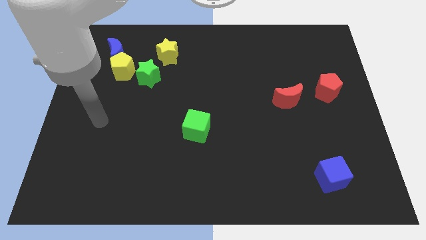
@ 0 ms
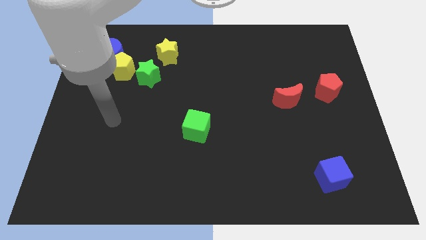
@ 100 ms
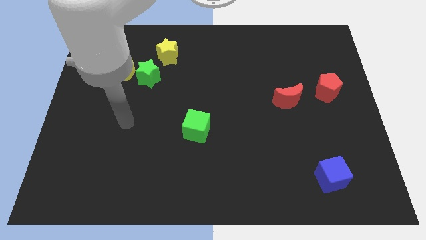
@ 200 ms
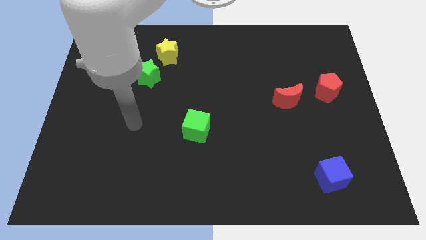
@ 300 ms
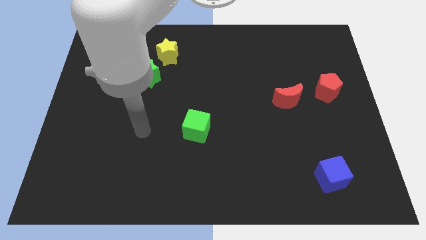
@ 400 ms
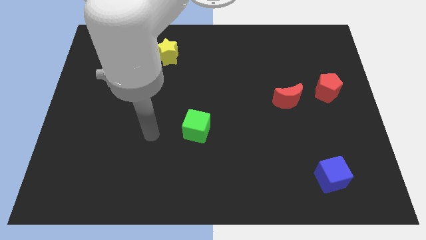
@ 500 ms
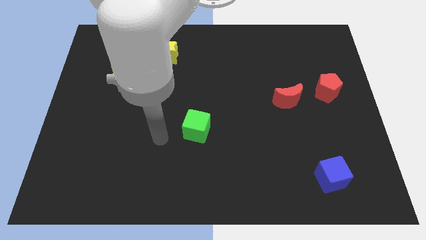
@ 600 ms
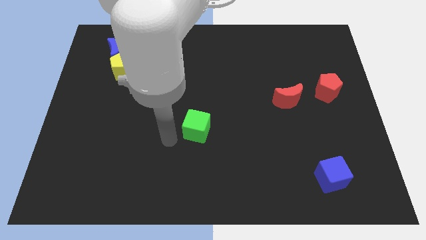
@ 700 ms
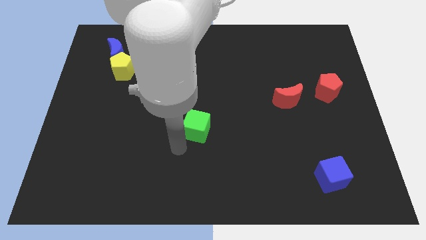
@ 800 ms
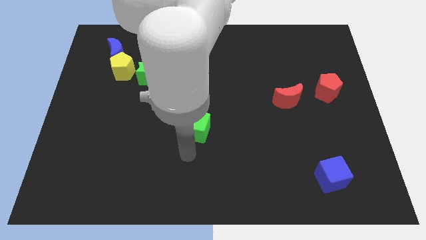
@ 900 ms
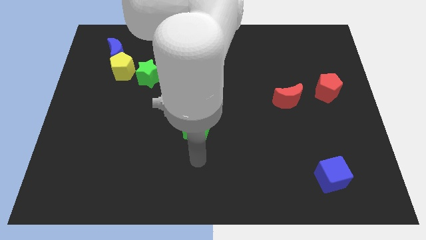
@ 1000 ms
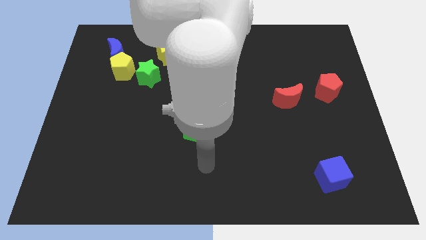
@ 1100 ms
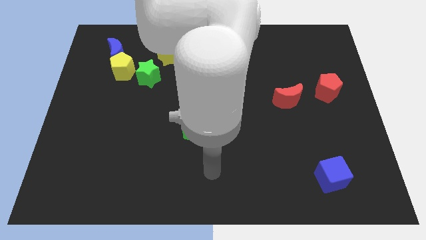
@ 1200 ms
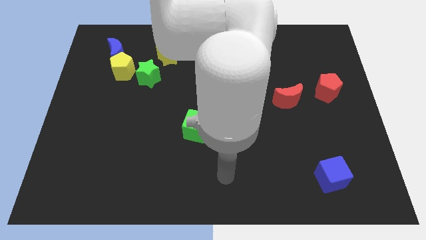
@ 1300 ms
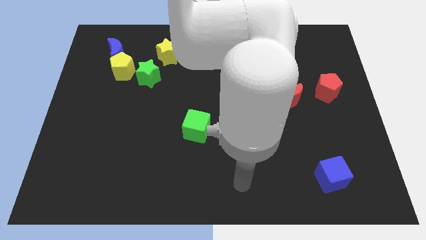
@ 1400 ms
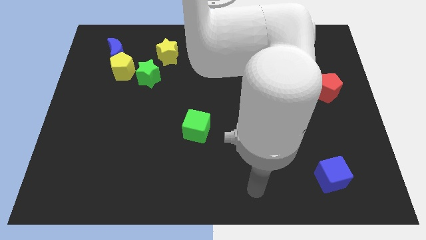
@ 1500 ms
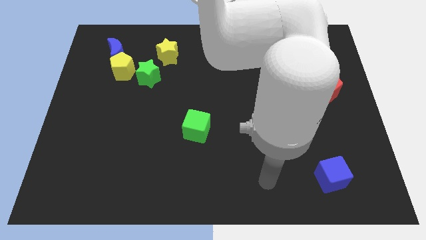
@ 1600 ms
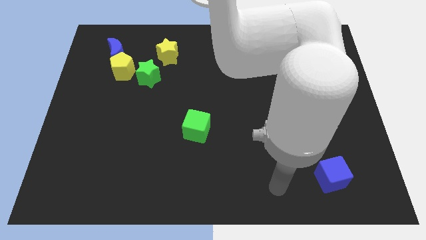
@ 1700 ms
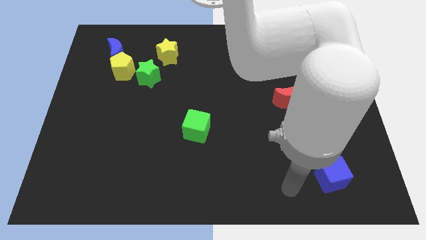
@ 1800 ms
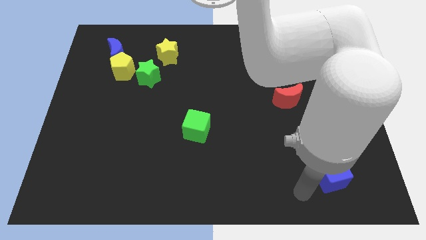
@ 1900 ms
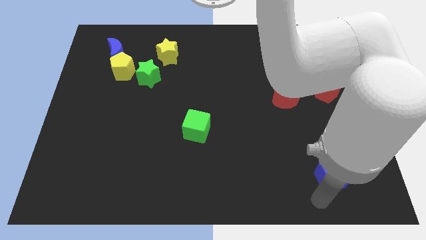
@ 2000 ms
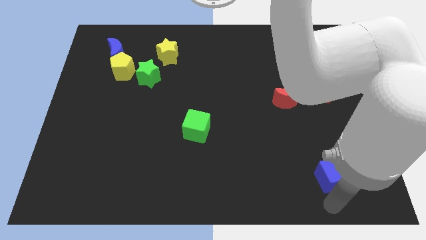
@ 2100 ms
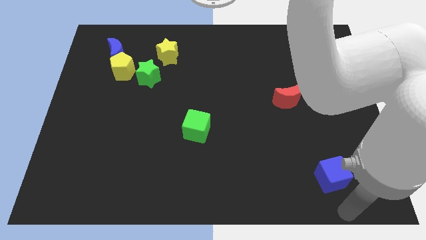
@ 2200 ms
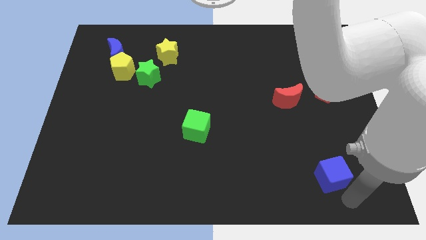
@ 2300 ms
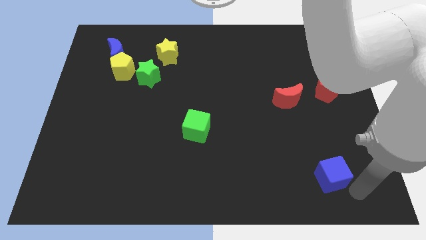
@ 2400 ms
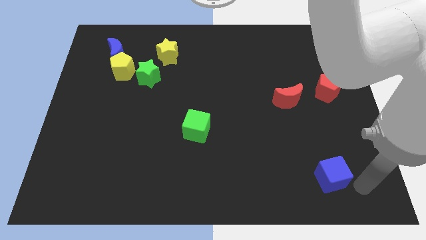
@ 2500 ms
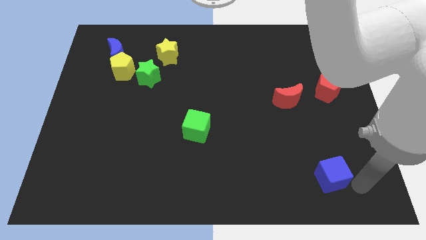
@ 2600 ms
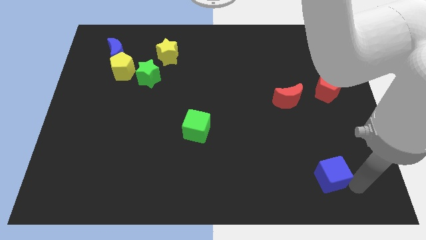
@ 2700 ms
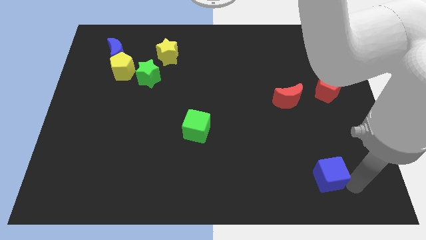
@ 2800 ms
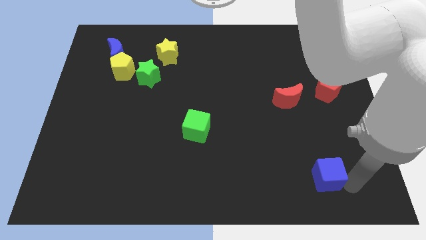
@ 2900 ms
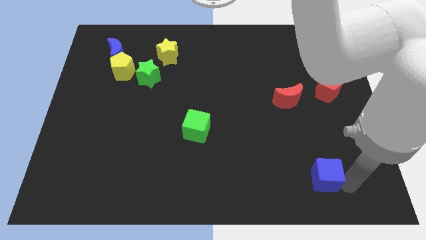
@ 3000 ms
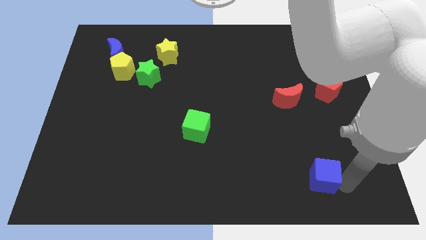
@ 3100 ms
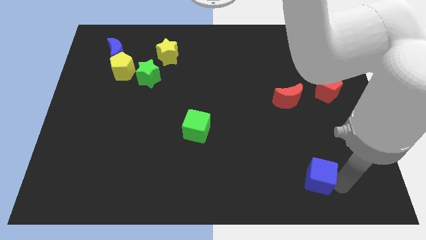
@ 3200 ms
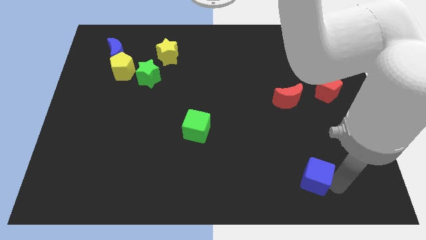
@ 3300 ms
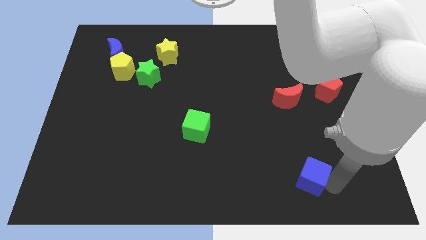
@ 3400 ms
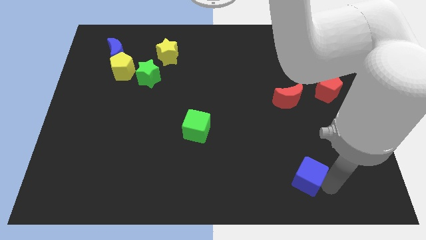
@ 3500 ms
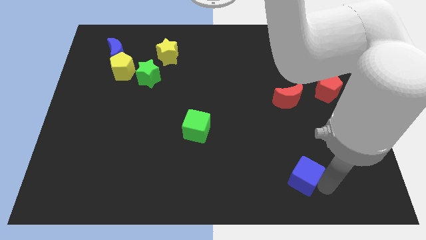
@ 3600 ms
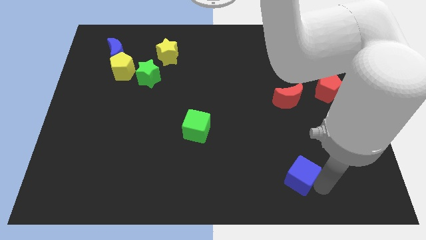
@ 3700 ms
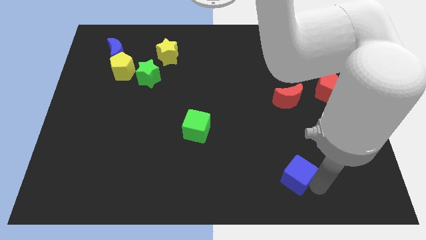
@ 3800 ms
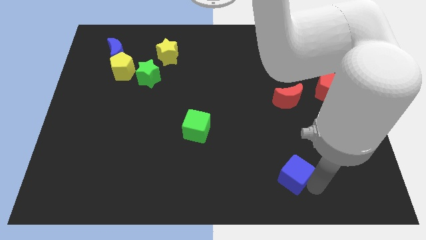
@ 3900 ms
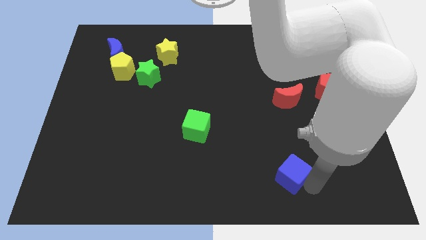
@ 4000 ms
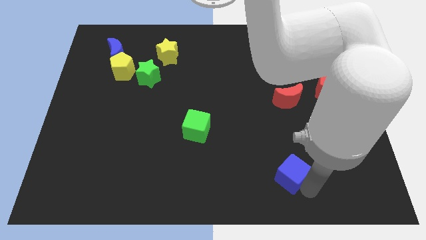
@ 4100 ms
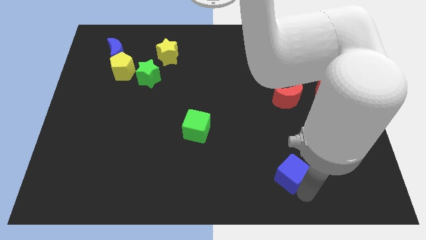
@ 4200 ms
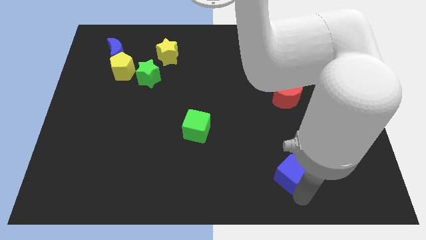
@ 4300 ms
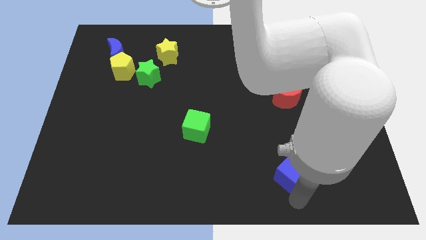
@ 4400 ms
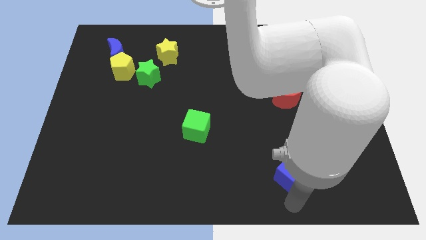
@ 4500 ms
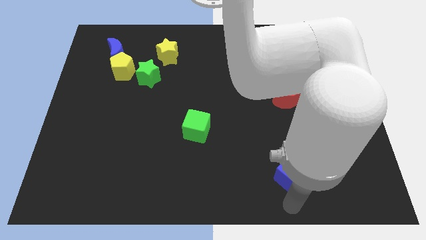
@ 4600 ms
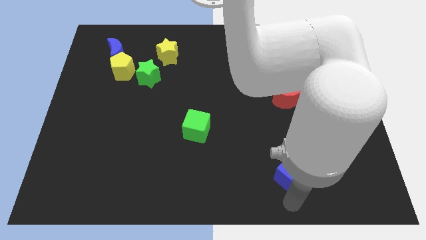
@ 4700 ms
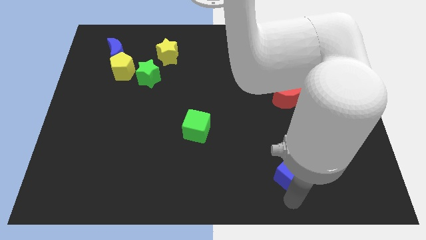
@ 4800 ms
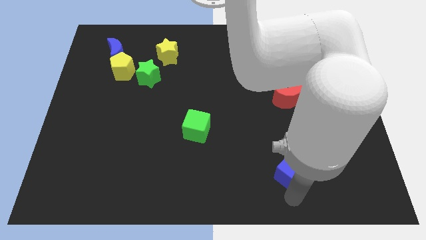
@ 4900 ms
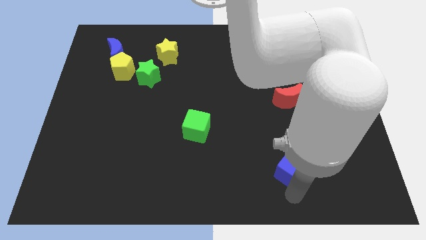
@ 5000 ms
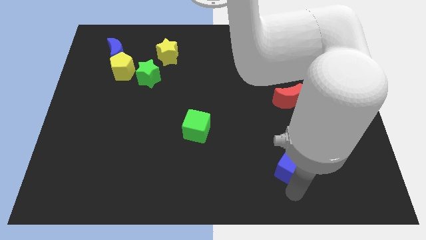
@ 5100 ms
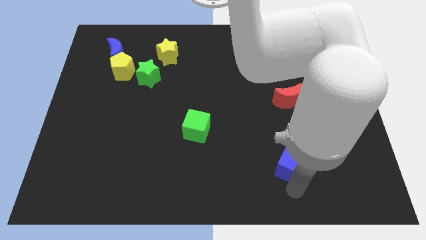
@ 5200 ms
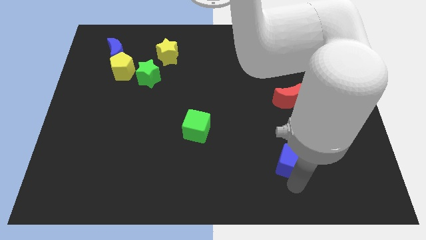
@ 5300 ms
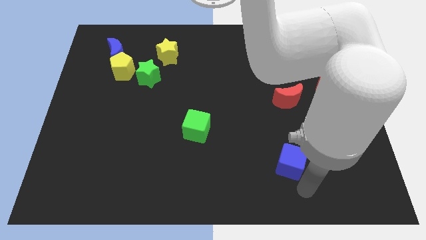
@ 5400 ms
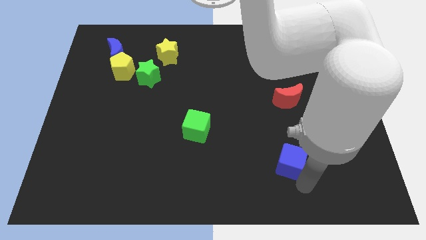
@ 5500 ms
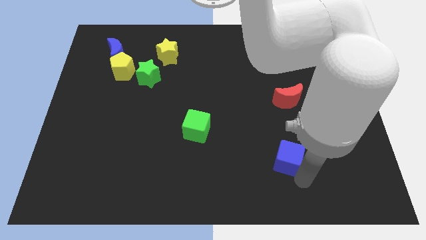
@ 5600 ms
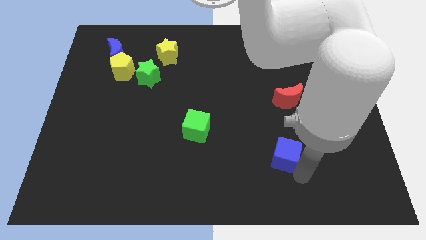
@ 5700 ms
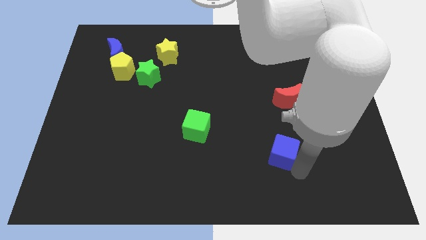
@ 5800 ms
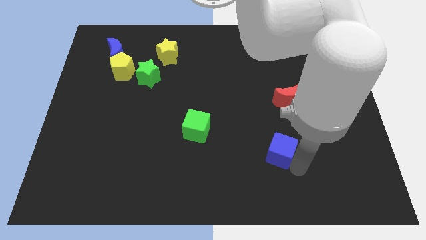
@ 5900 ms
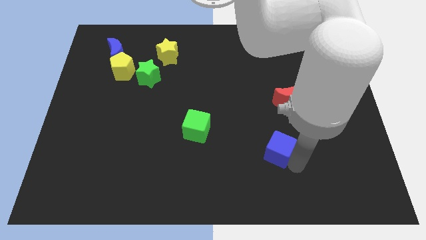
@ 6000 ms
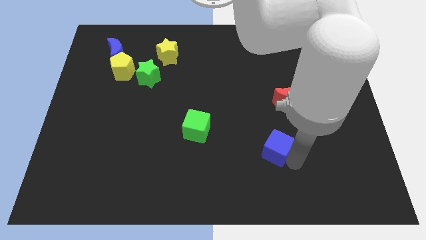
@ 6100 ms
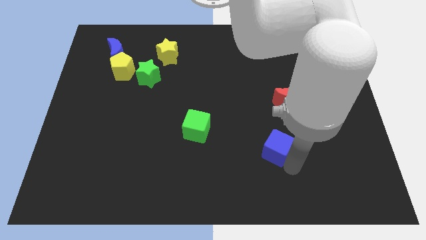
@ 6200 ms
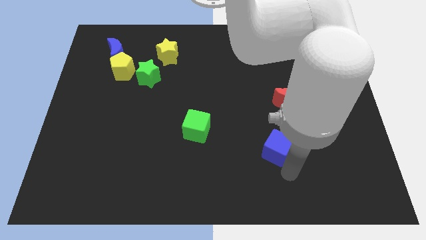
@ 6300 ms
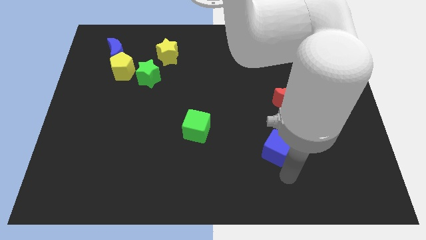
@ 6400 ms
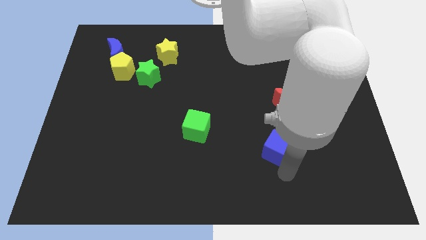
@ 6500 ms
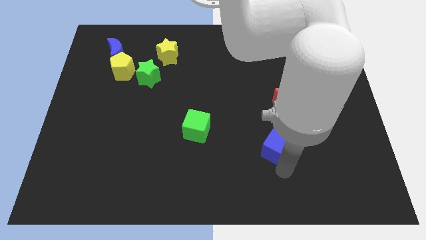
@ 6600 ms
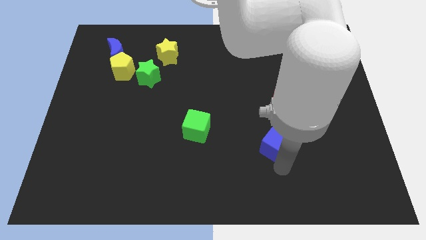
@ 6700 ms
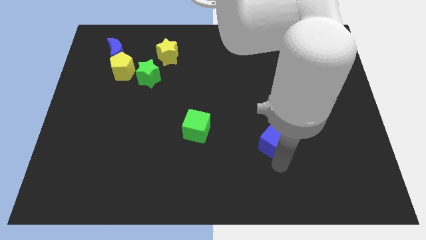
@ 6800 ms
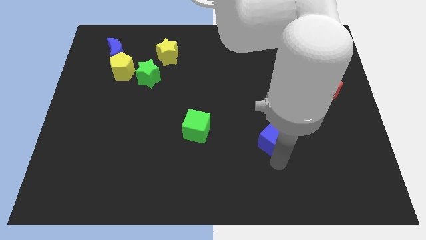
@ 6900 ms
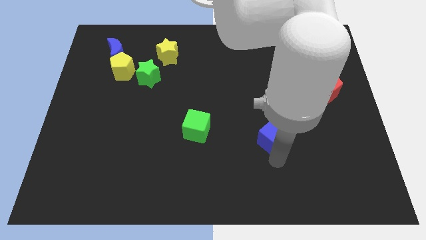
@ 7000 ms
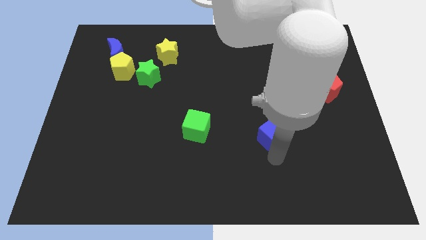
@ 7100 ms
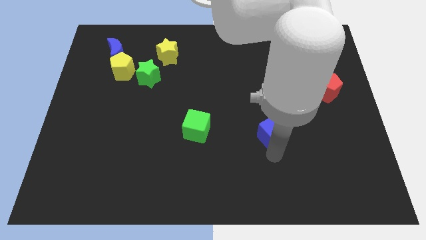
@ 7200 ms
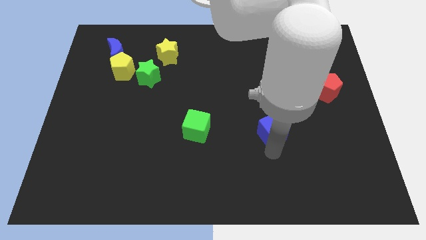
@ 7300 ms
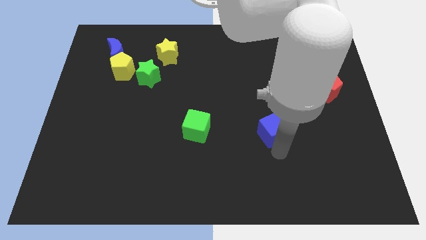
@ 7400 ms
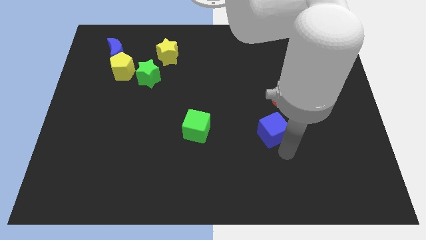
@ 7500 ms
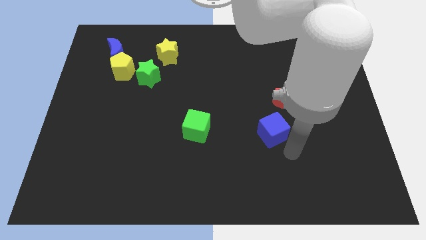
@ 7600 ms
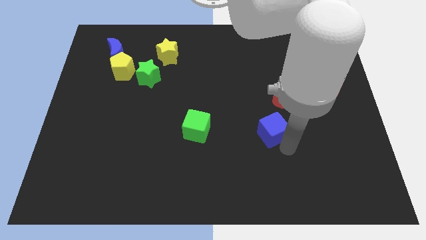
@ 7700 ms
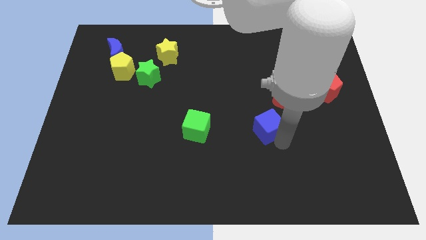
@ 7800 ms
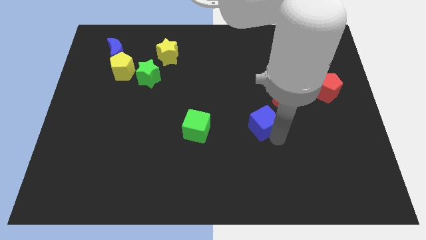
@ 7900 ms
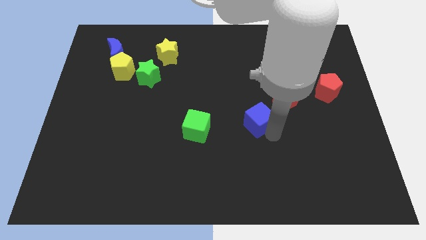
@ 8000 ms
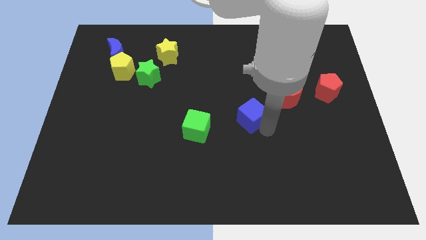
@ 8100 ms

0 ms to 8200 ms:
move the blue cube up and to the left diagonally
